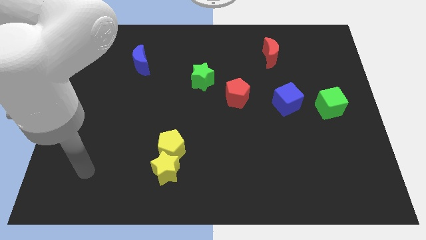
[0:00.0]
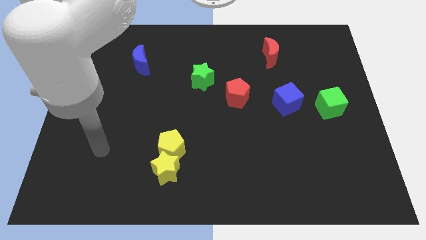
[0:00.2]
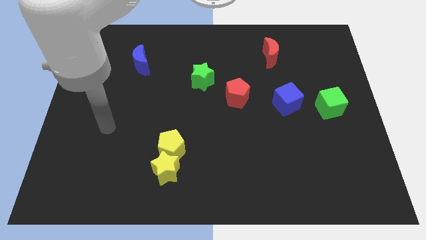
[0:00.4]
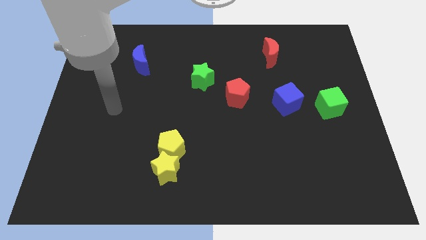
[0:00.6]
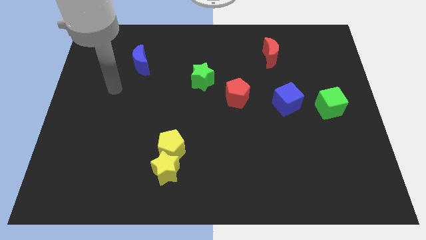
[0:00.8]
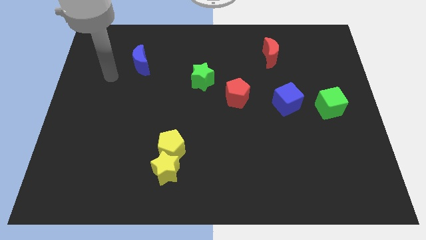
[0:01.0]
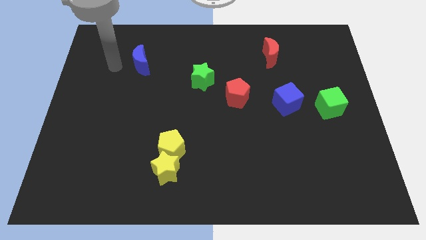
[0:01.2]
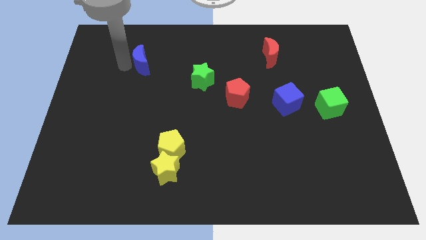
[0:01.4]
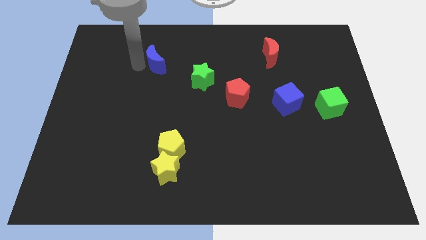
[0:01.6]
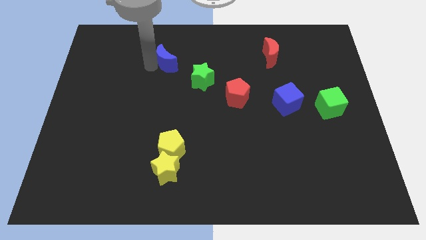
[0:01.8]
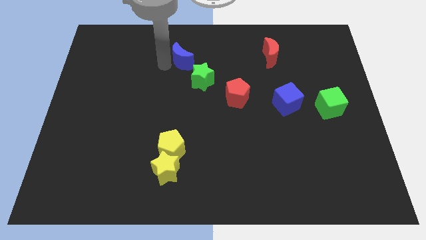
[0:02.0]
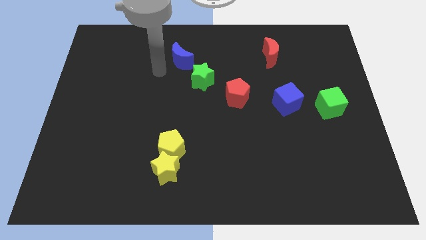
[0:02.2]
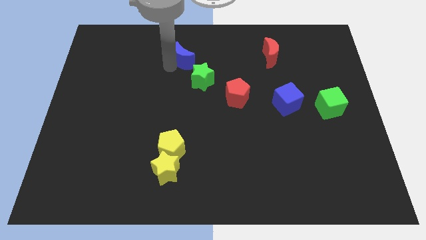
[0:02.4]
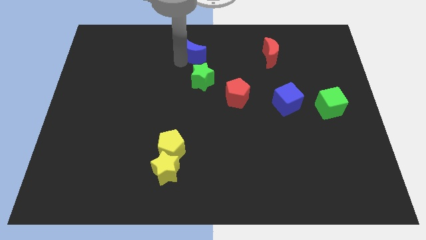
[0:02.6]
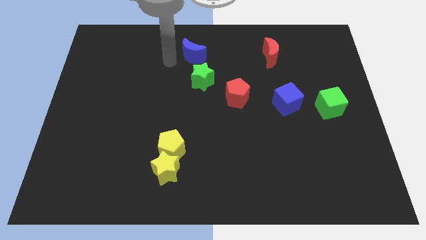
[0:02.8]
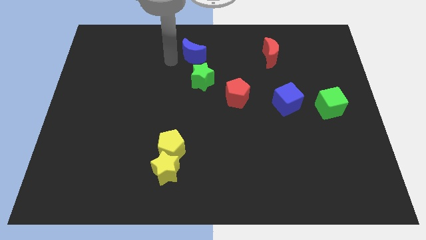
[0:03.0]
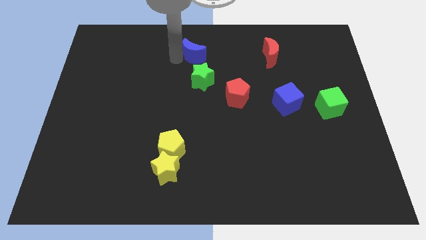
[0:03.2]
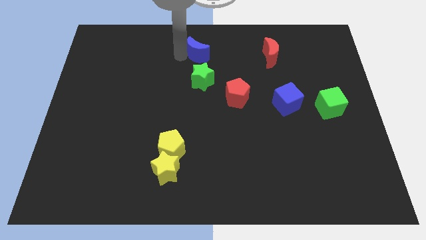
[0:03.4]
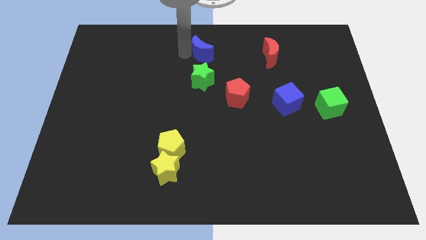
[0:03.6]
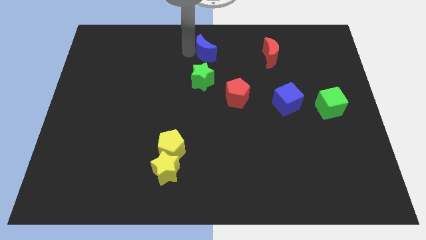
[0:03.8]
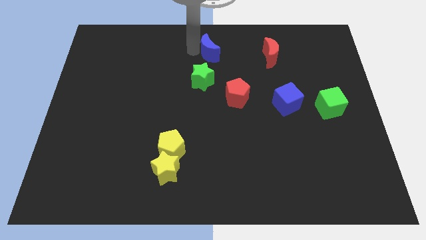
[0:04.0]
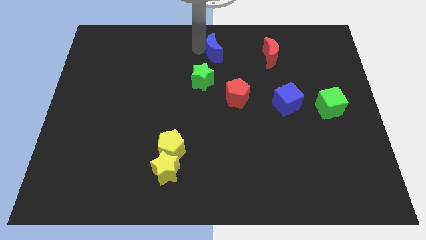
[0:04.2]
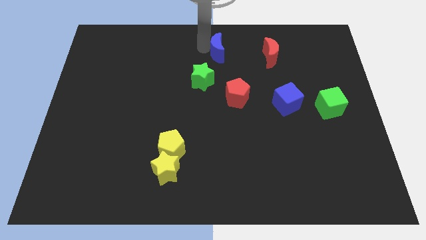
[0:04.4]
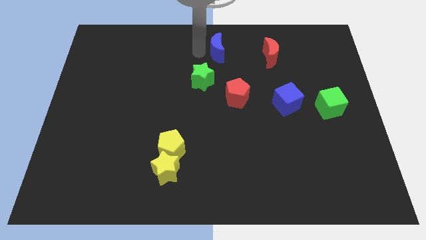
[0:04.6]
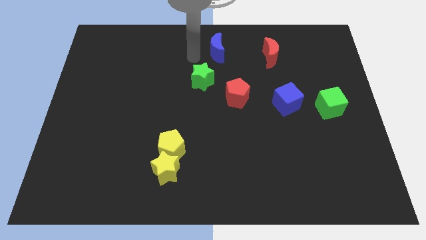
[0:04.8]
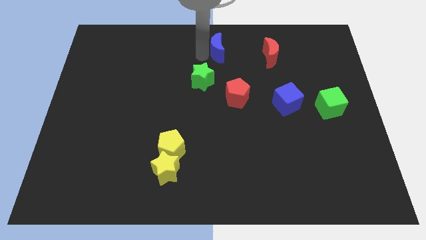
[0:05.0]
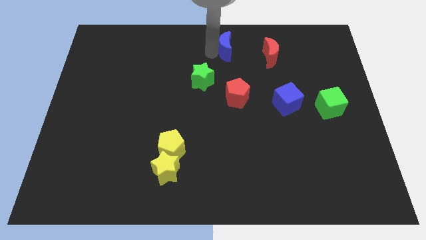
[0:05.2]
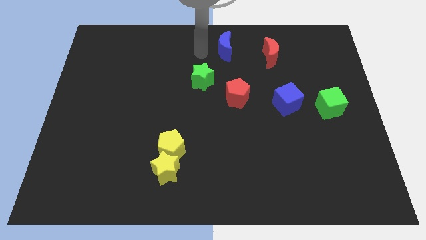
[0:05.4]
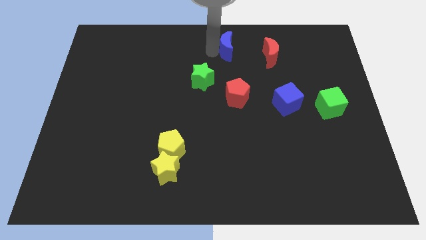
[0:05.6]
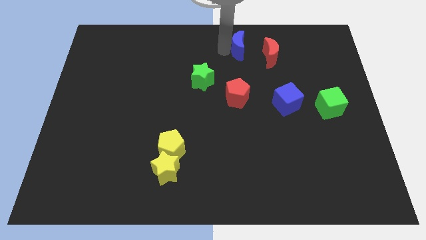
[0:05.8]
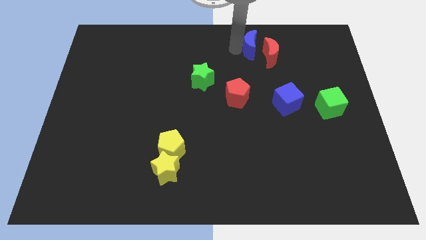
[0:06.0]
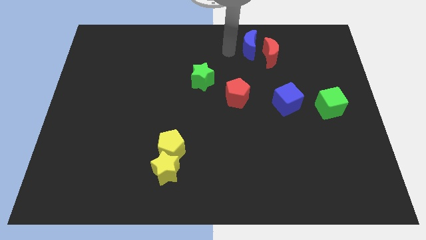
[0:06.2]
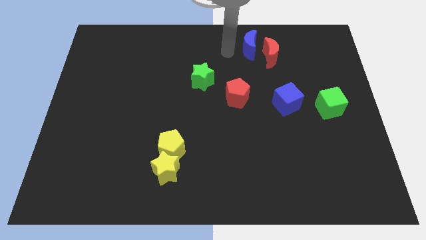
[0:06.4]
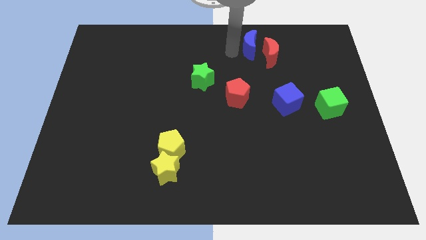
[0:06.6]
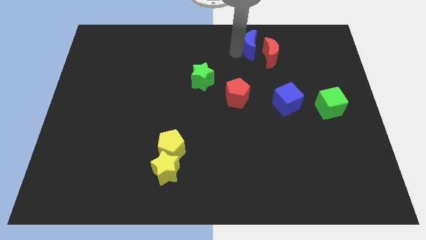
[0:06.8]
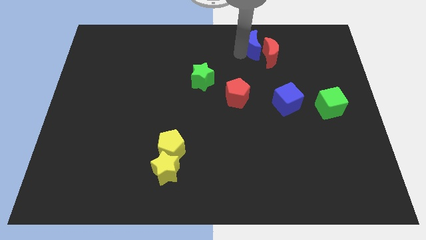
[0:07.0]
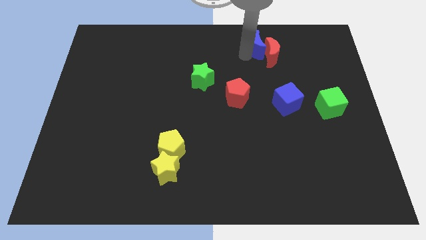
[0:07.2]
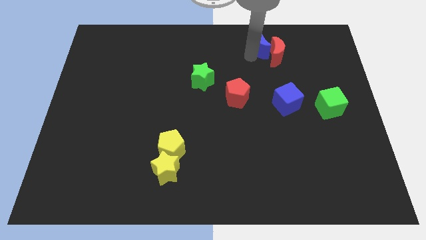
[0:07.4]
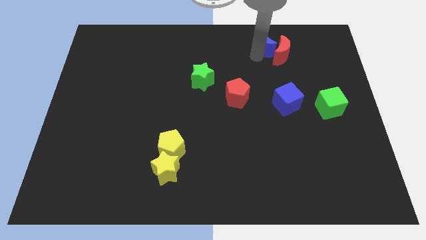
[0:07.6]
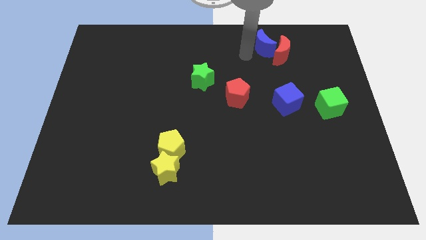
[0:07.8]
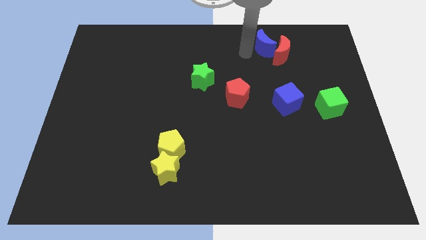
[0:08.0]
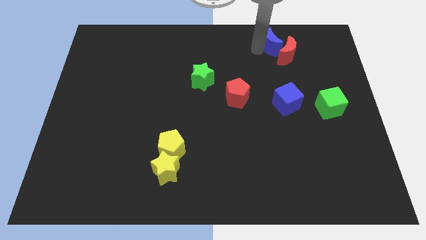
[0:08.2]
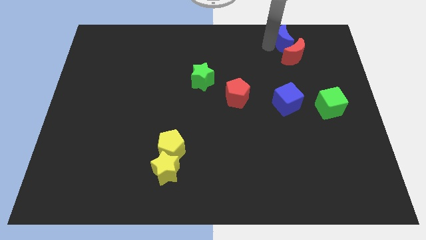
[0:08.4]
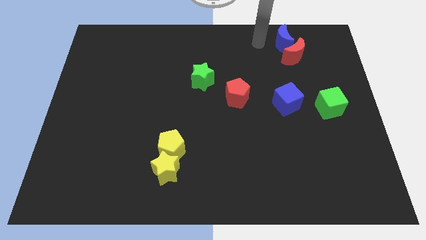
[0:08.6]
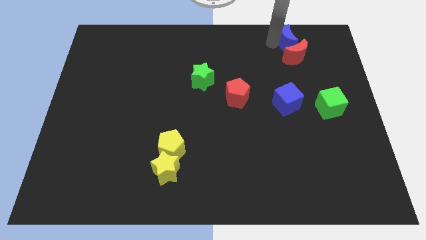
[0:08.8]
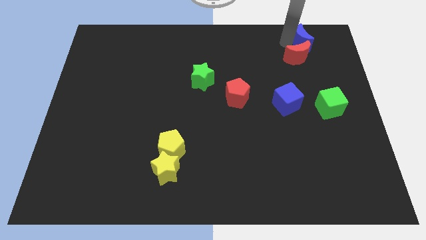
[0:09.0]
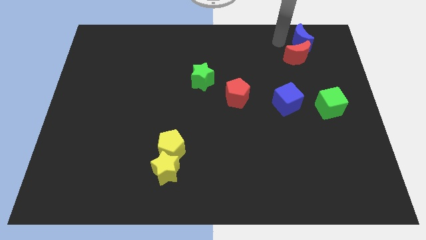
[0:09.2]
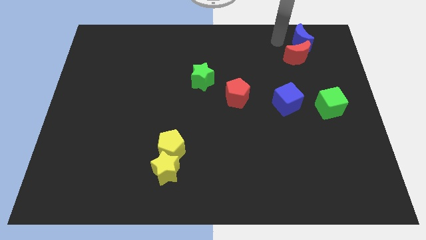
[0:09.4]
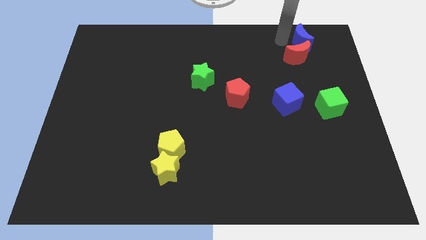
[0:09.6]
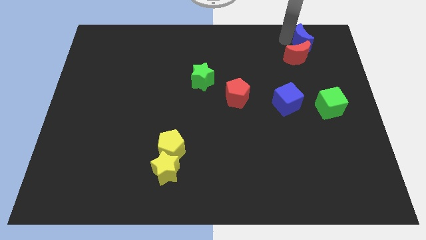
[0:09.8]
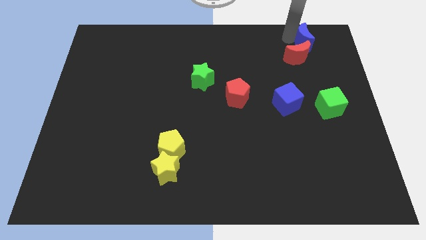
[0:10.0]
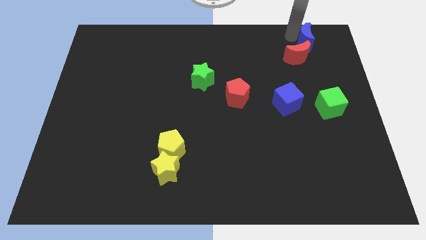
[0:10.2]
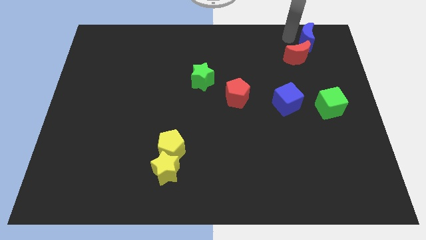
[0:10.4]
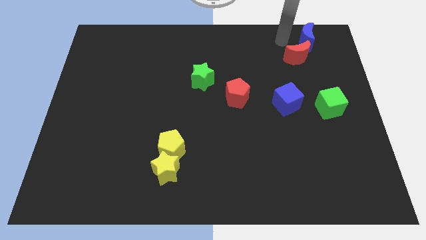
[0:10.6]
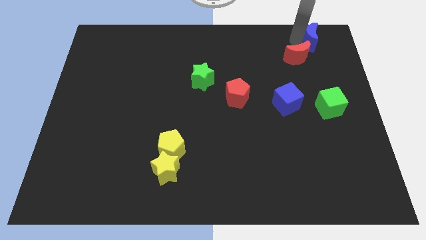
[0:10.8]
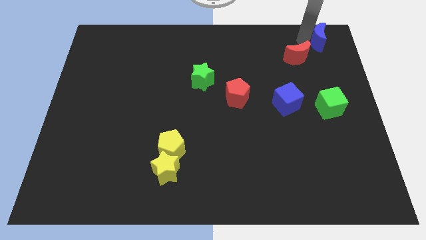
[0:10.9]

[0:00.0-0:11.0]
slide the blue moon to the top right of the board
